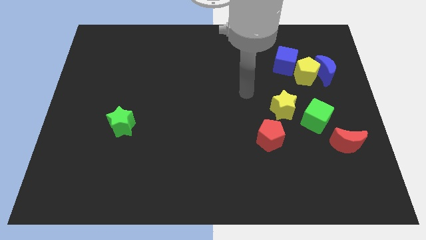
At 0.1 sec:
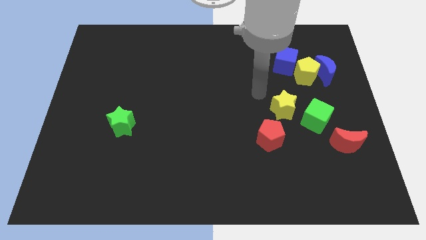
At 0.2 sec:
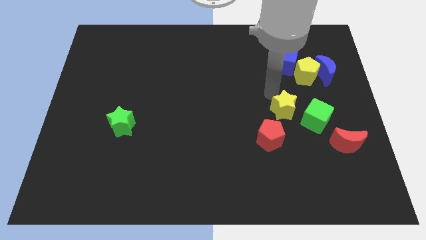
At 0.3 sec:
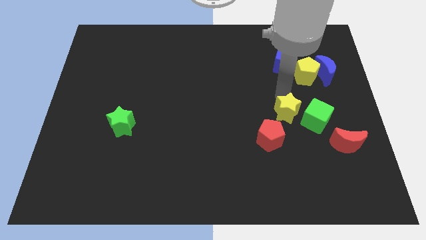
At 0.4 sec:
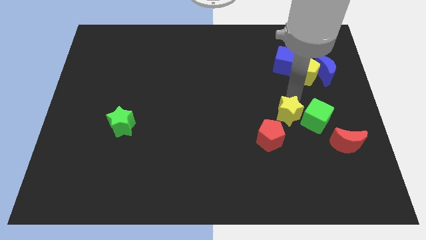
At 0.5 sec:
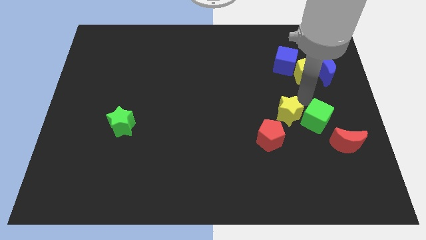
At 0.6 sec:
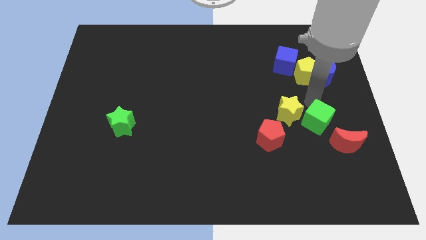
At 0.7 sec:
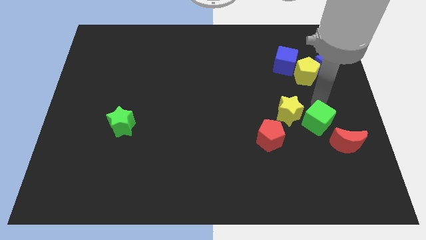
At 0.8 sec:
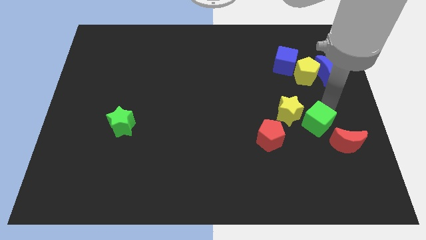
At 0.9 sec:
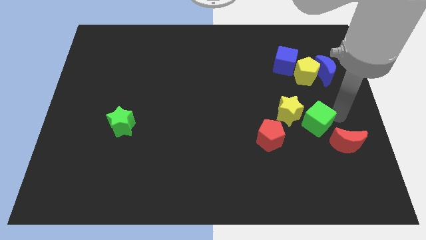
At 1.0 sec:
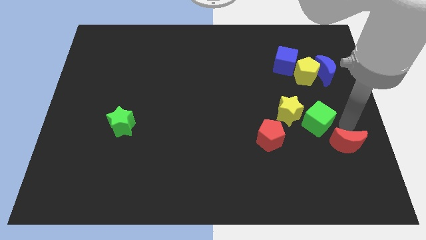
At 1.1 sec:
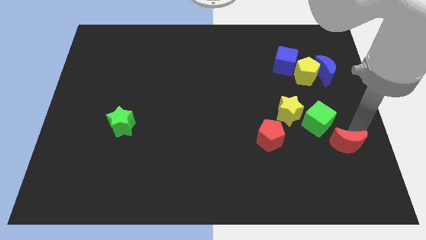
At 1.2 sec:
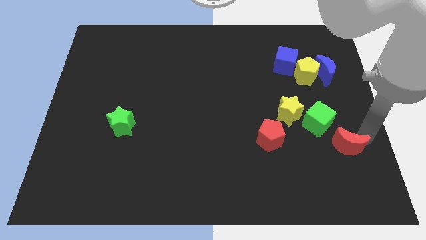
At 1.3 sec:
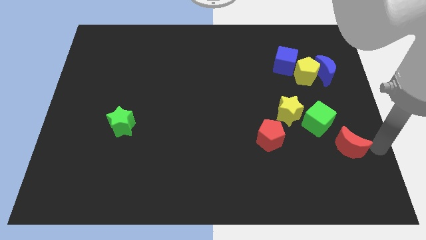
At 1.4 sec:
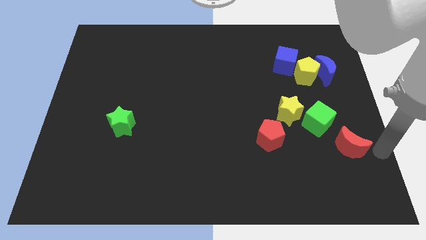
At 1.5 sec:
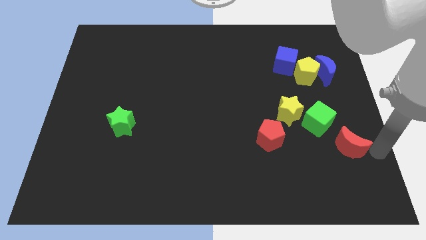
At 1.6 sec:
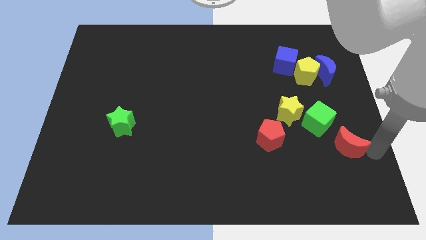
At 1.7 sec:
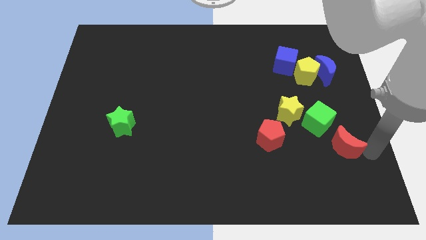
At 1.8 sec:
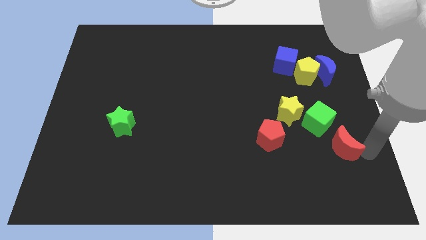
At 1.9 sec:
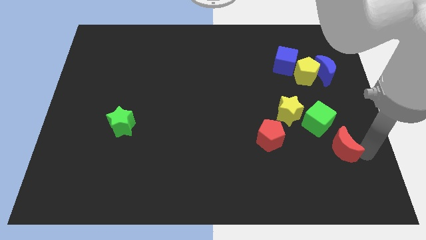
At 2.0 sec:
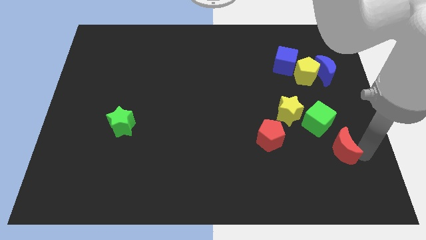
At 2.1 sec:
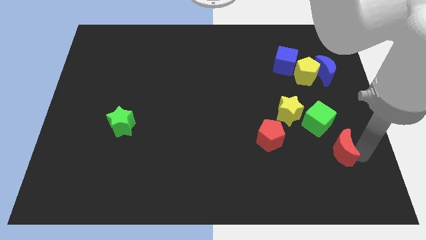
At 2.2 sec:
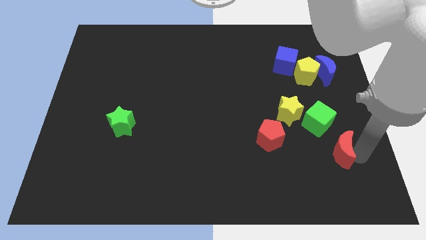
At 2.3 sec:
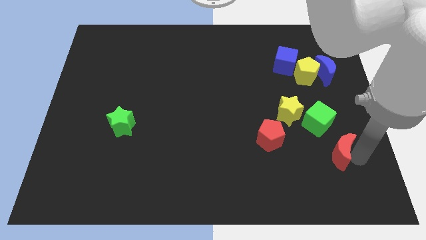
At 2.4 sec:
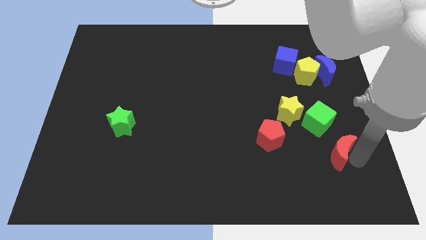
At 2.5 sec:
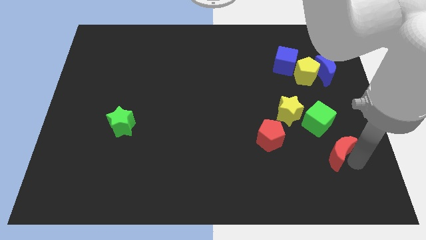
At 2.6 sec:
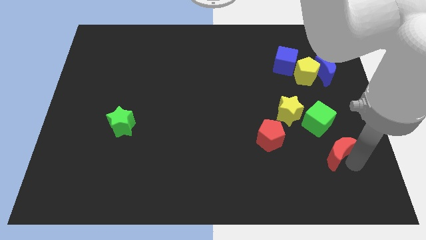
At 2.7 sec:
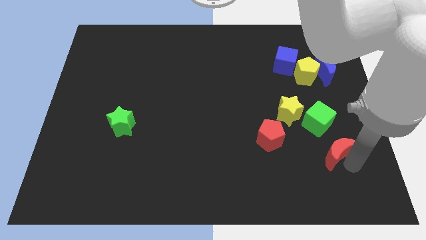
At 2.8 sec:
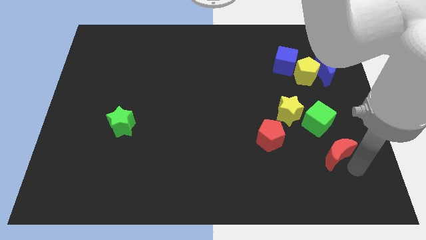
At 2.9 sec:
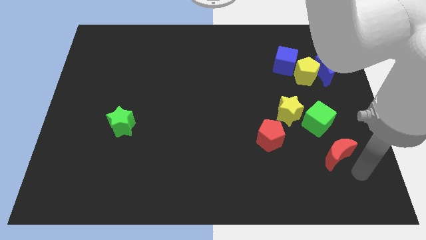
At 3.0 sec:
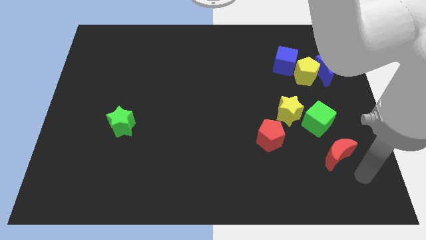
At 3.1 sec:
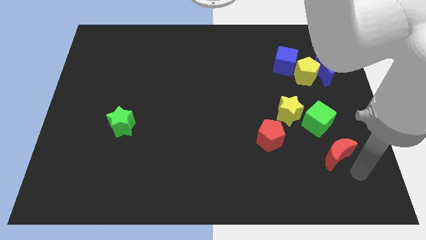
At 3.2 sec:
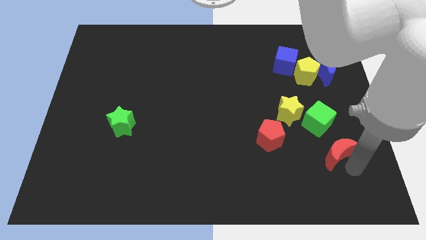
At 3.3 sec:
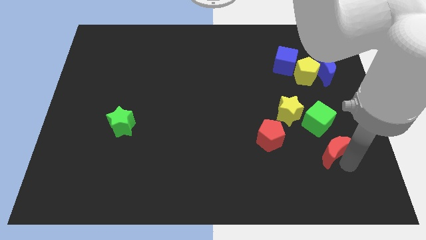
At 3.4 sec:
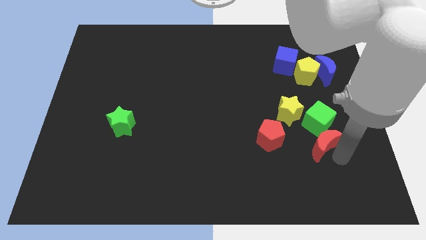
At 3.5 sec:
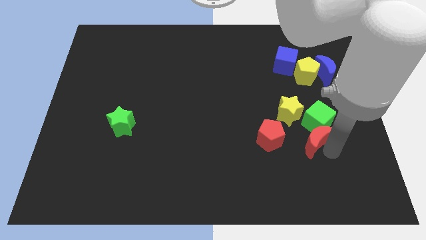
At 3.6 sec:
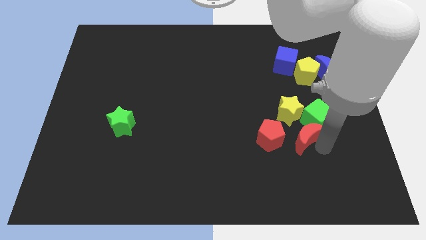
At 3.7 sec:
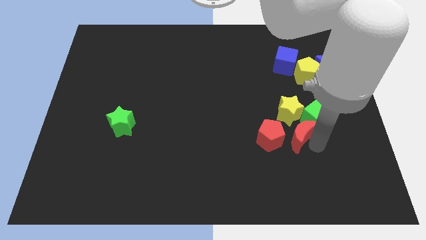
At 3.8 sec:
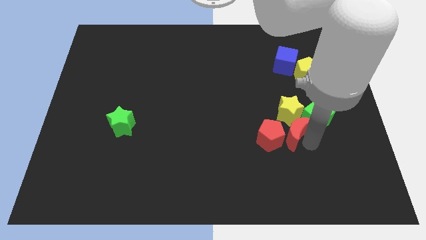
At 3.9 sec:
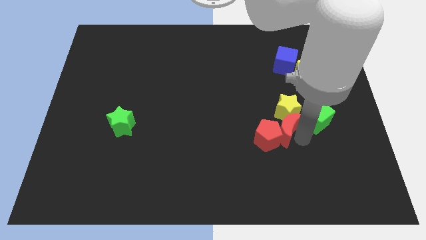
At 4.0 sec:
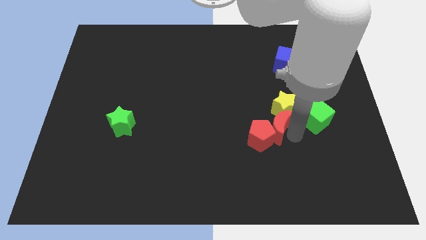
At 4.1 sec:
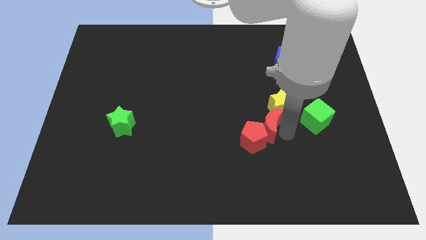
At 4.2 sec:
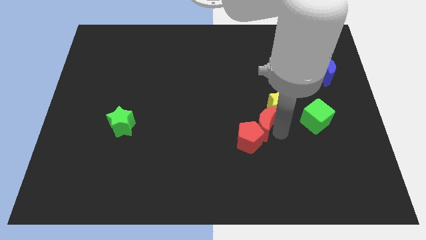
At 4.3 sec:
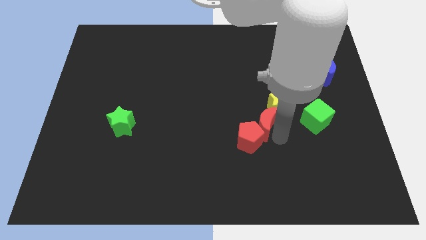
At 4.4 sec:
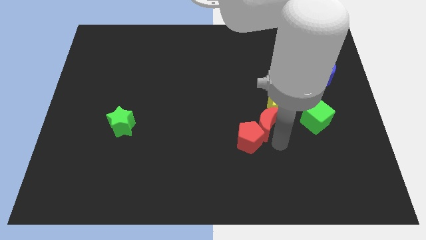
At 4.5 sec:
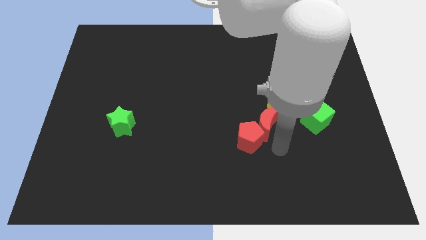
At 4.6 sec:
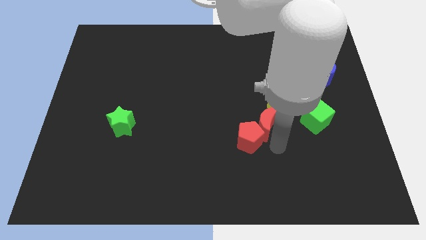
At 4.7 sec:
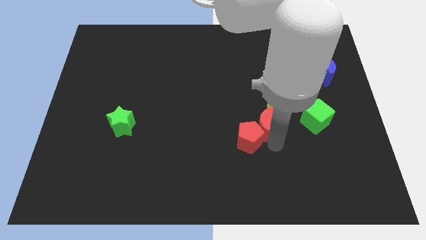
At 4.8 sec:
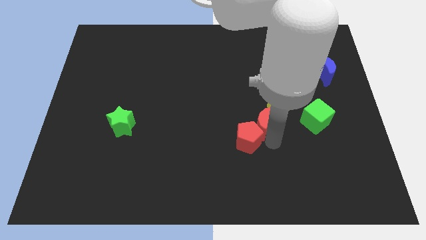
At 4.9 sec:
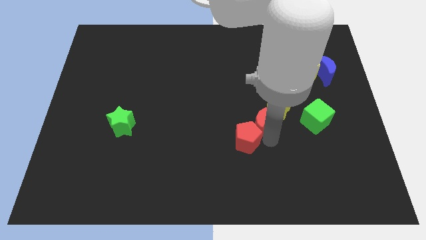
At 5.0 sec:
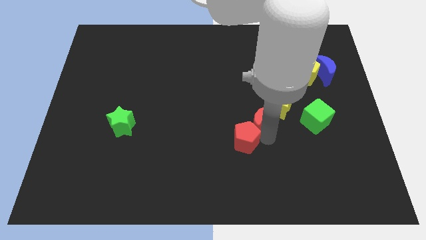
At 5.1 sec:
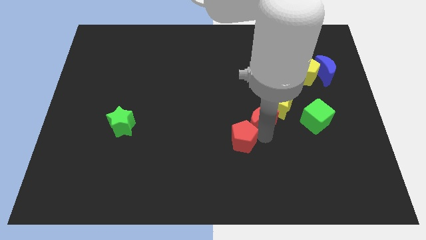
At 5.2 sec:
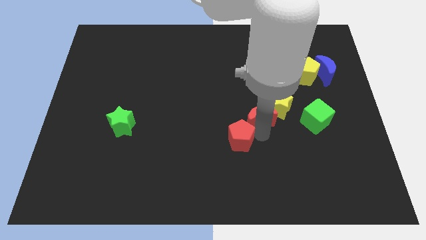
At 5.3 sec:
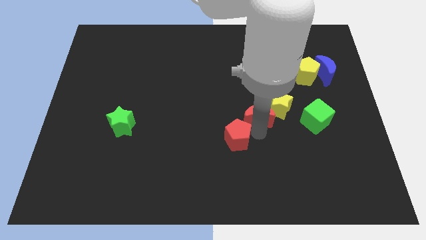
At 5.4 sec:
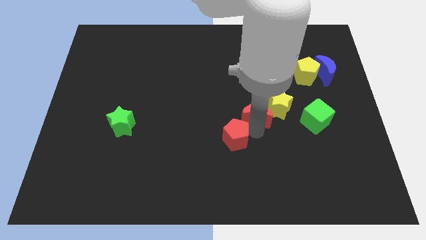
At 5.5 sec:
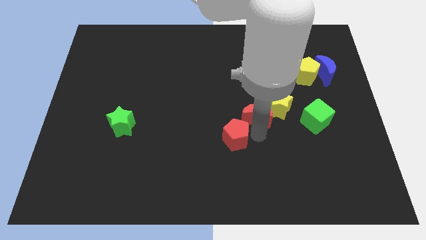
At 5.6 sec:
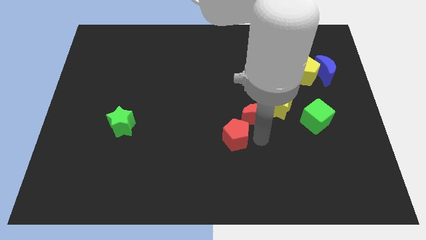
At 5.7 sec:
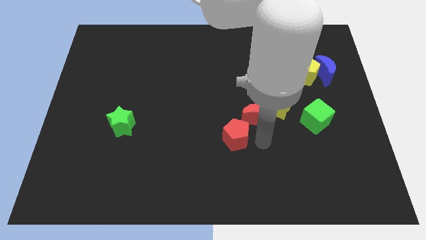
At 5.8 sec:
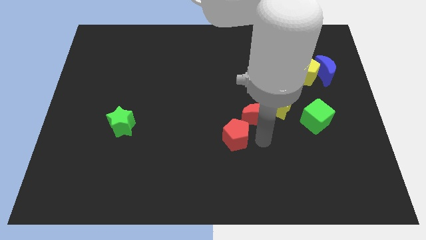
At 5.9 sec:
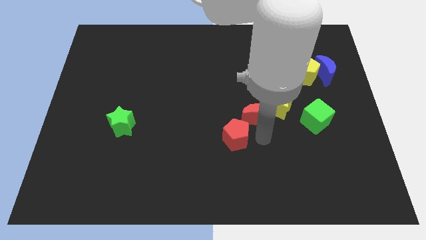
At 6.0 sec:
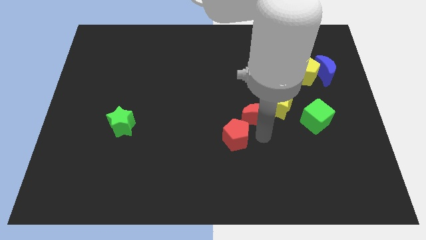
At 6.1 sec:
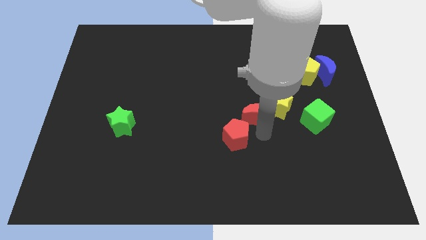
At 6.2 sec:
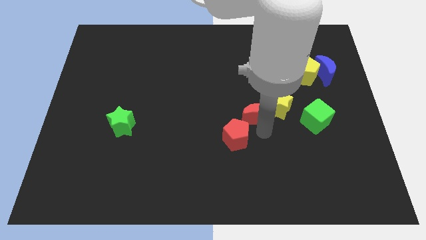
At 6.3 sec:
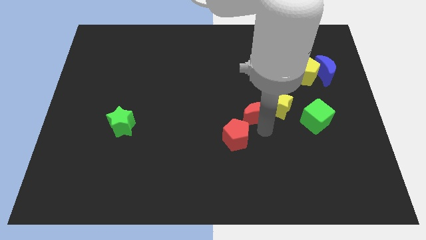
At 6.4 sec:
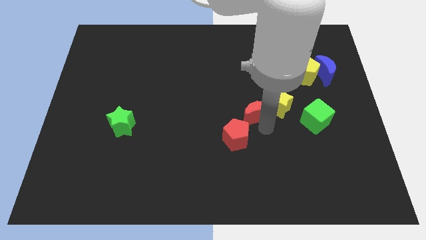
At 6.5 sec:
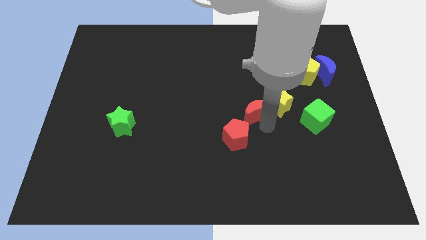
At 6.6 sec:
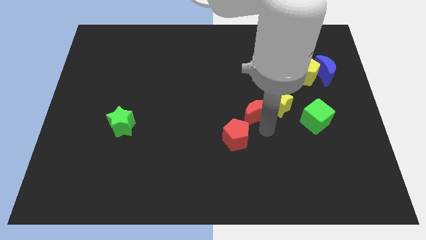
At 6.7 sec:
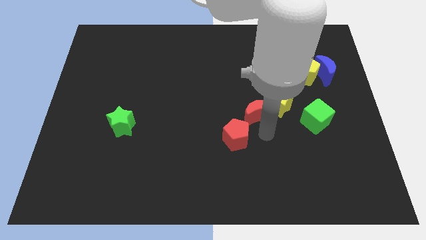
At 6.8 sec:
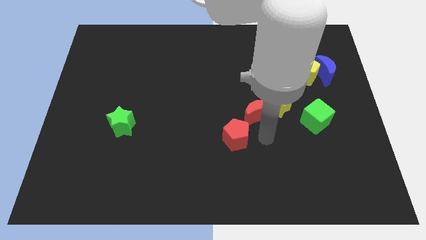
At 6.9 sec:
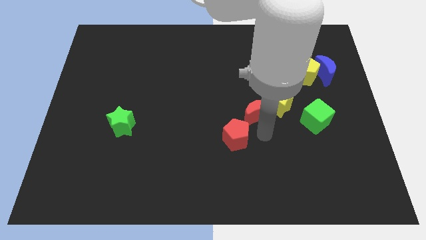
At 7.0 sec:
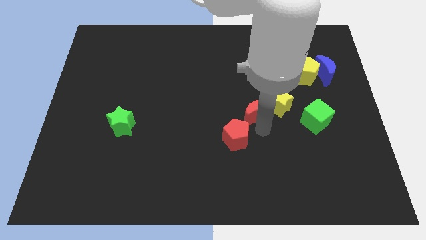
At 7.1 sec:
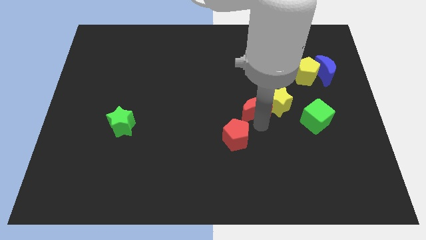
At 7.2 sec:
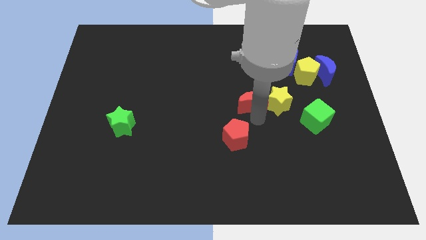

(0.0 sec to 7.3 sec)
push the red moon up and then left

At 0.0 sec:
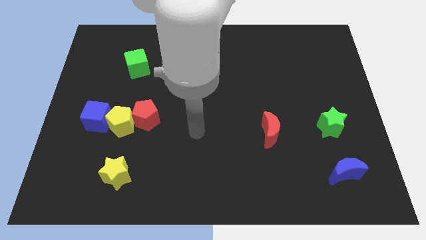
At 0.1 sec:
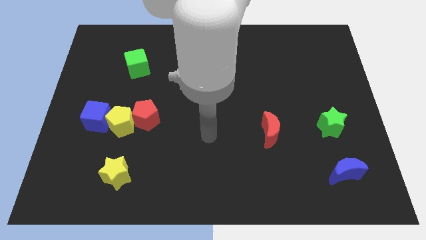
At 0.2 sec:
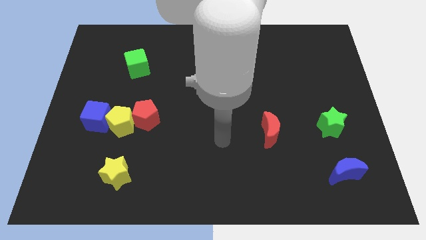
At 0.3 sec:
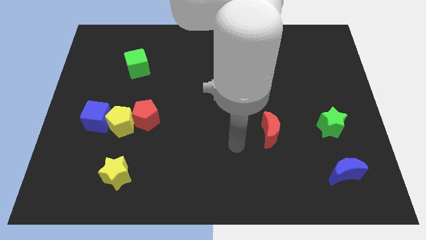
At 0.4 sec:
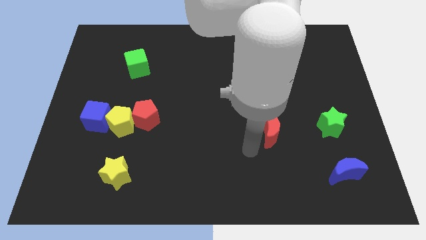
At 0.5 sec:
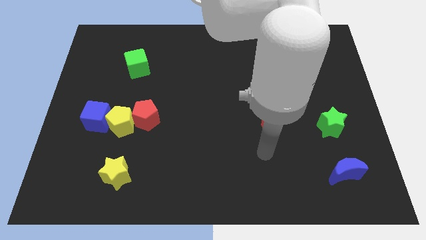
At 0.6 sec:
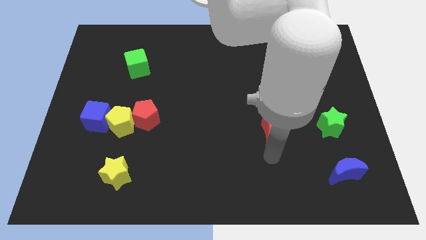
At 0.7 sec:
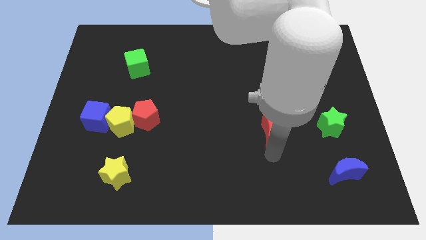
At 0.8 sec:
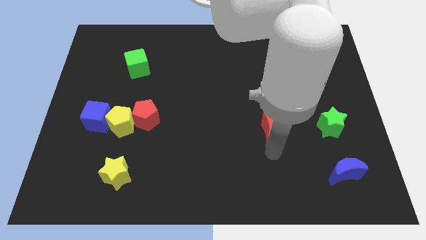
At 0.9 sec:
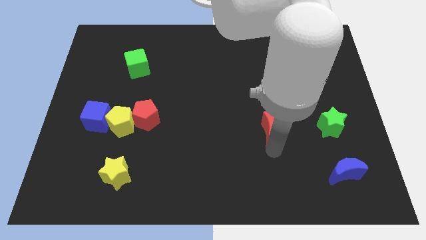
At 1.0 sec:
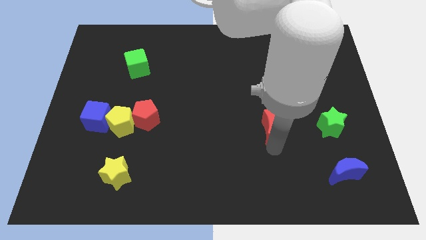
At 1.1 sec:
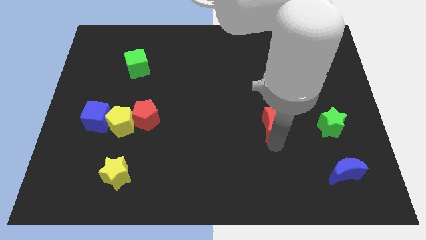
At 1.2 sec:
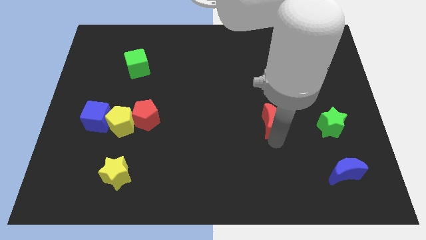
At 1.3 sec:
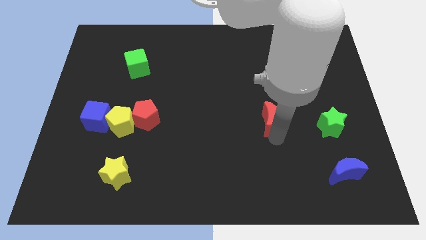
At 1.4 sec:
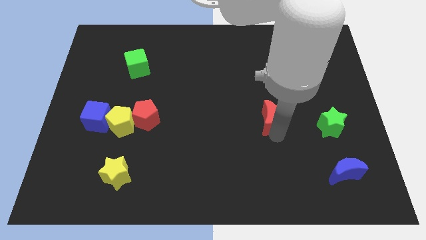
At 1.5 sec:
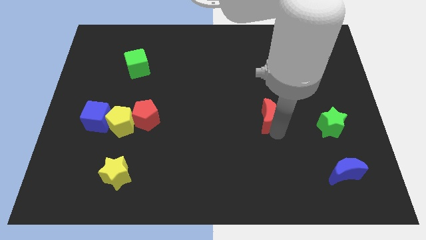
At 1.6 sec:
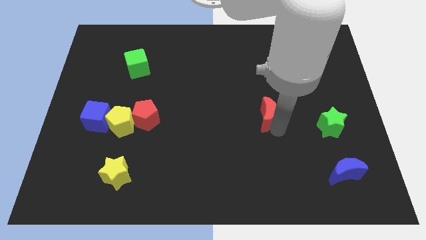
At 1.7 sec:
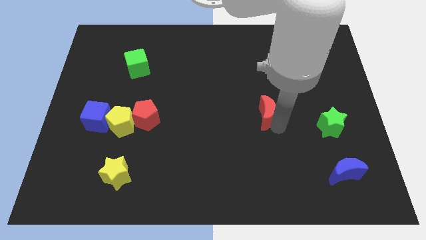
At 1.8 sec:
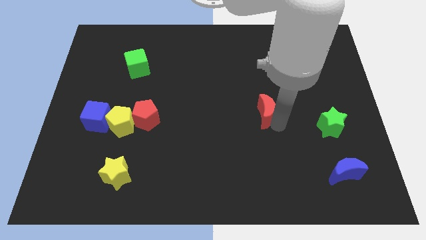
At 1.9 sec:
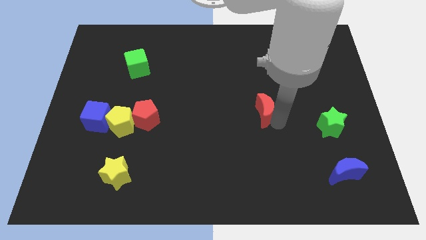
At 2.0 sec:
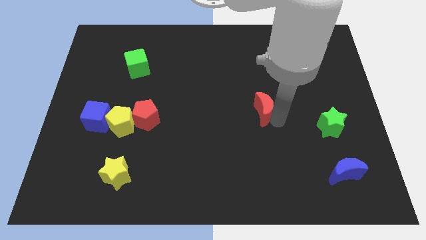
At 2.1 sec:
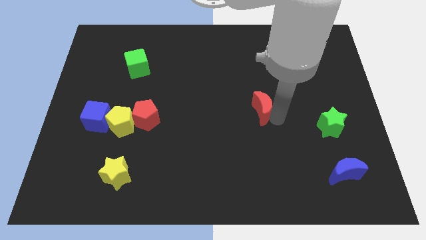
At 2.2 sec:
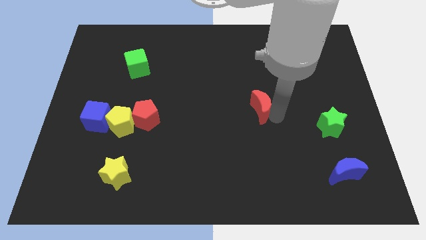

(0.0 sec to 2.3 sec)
move the red moon somewhat upwards
